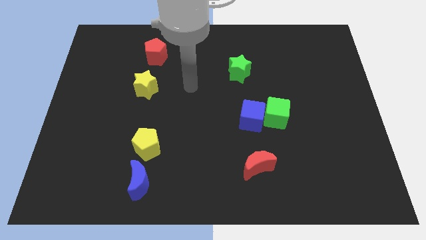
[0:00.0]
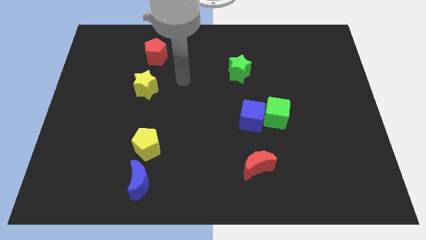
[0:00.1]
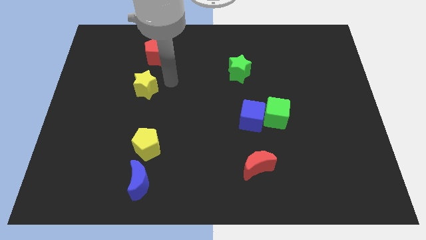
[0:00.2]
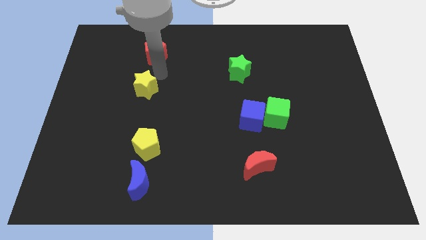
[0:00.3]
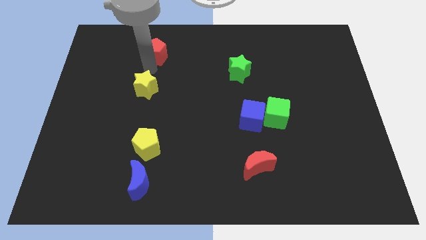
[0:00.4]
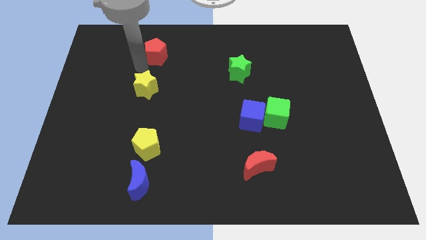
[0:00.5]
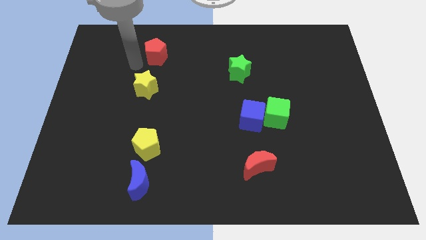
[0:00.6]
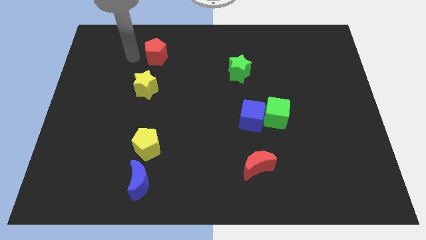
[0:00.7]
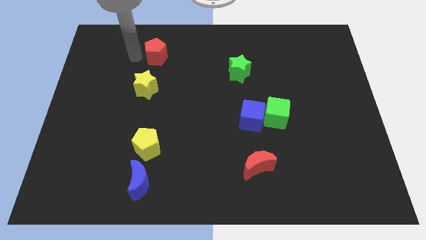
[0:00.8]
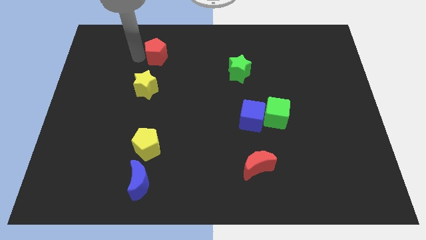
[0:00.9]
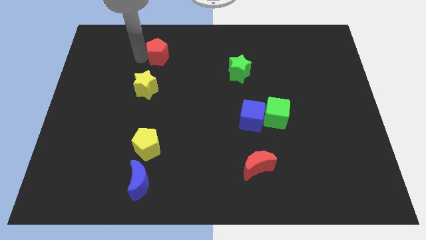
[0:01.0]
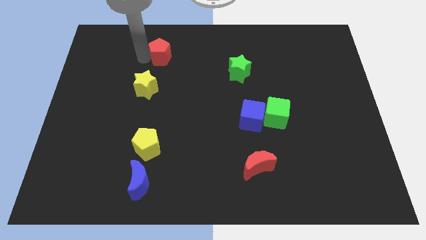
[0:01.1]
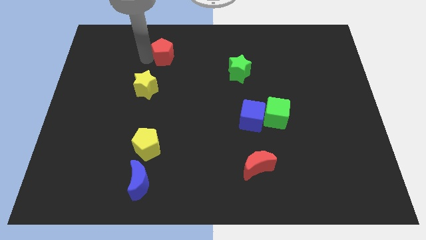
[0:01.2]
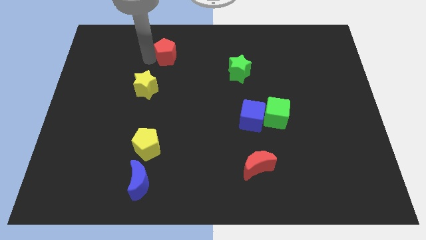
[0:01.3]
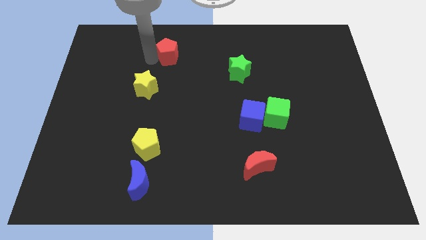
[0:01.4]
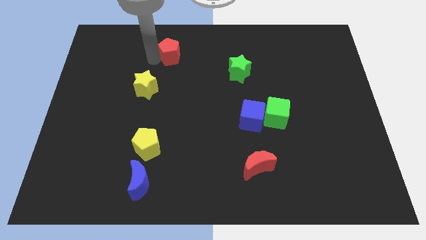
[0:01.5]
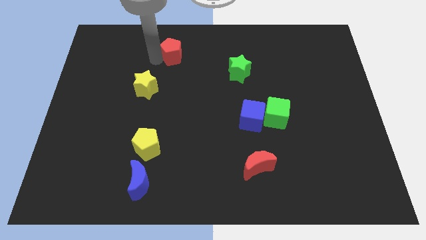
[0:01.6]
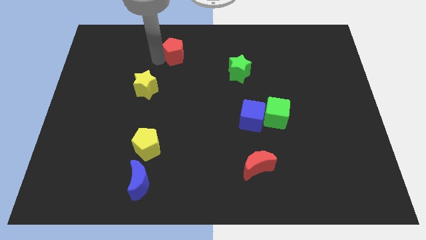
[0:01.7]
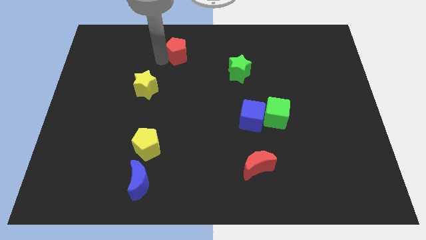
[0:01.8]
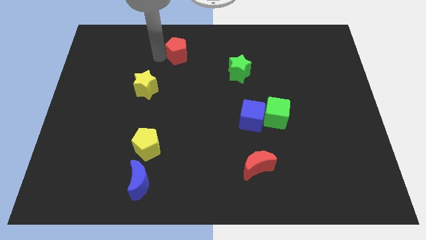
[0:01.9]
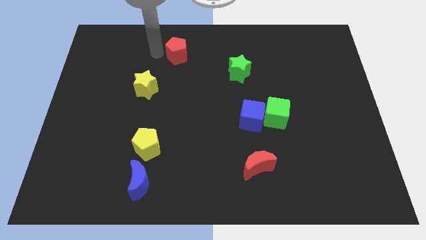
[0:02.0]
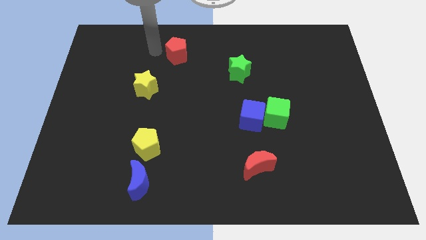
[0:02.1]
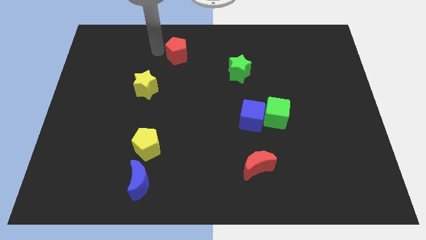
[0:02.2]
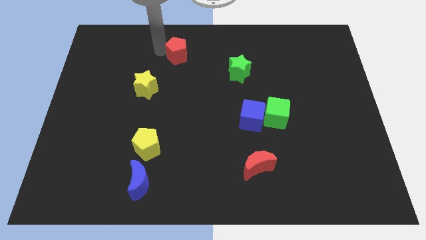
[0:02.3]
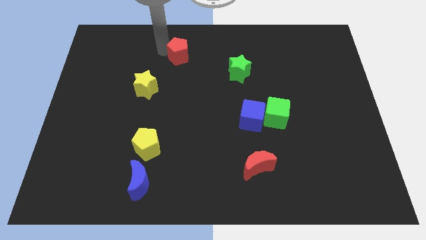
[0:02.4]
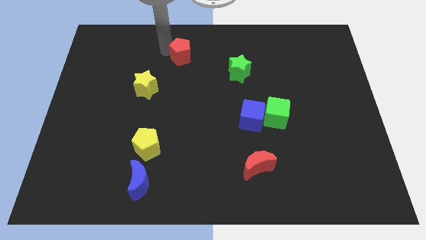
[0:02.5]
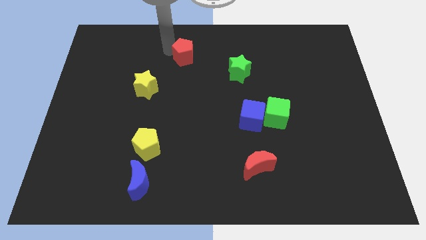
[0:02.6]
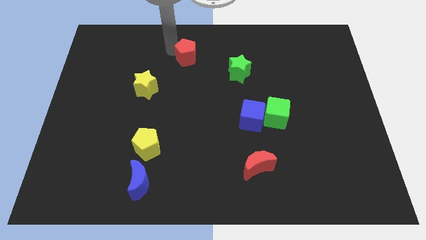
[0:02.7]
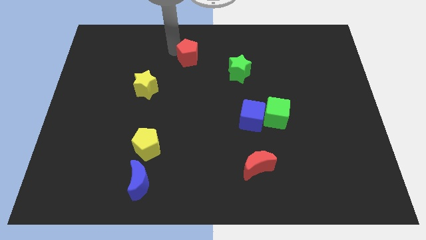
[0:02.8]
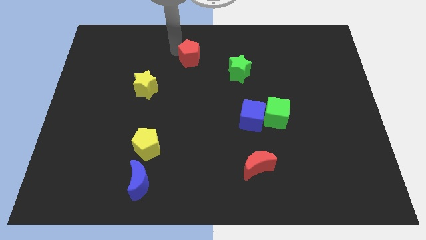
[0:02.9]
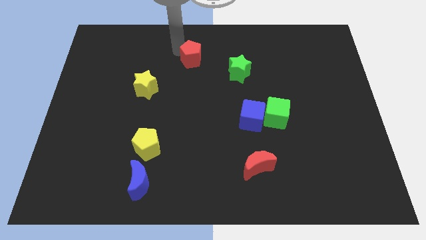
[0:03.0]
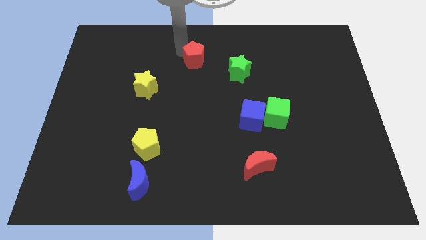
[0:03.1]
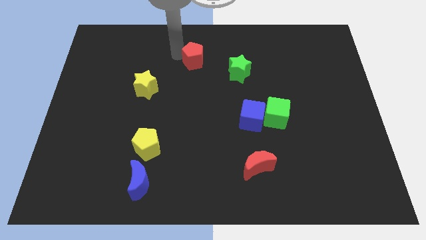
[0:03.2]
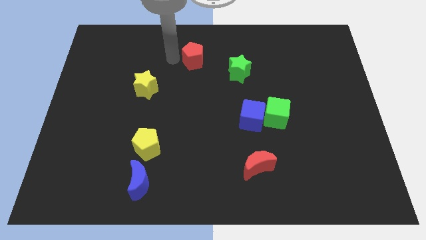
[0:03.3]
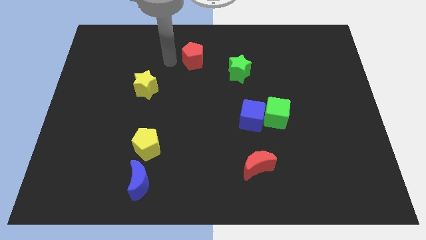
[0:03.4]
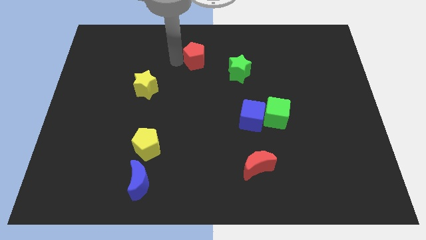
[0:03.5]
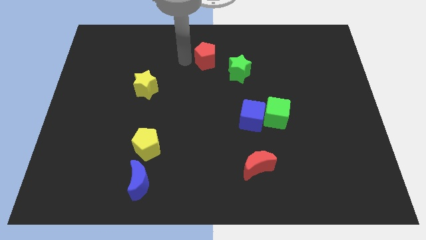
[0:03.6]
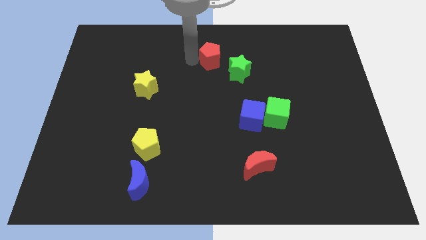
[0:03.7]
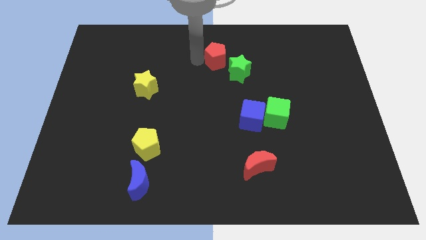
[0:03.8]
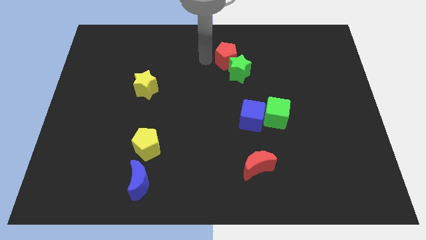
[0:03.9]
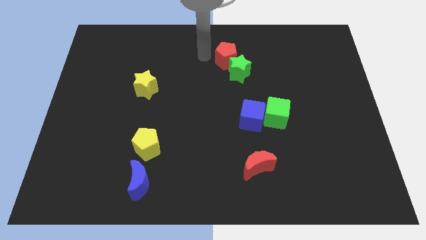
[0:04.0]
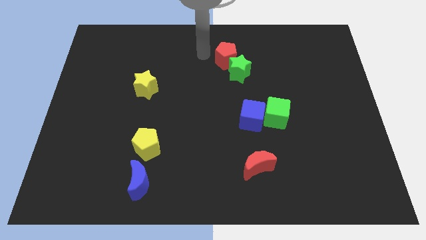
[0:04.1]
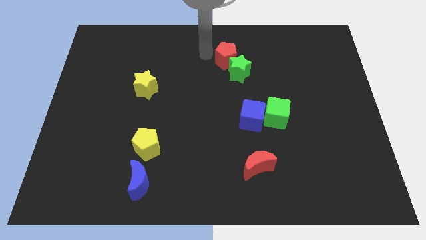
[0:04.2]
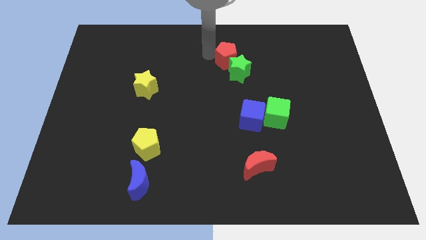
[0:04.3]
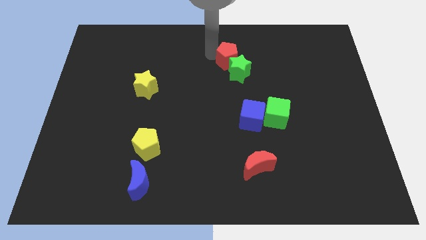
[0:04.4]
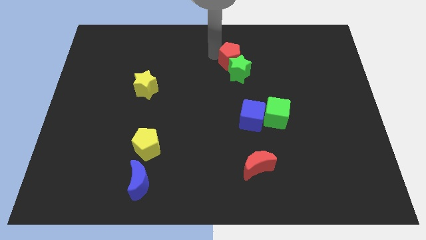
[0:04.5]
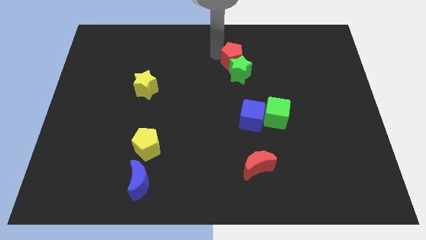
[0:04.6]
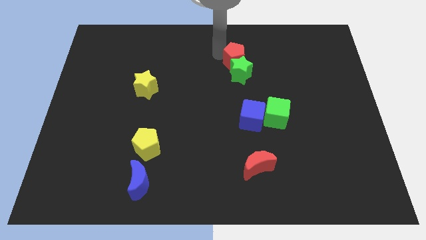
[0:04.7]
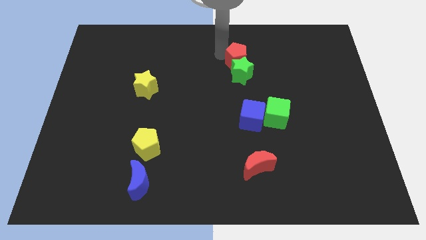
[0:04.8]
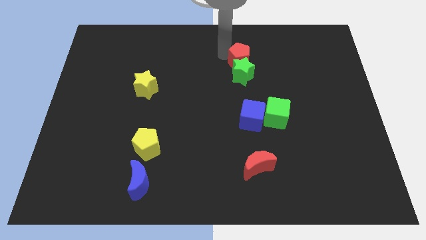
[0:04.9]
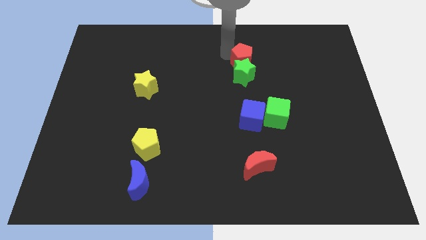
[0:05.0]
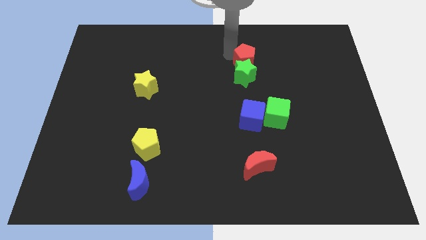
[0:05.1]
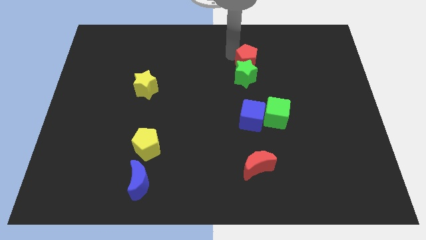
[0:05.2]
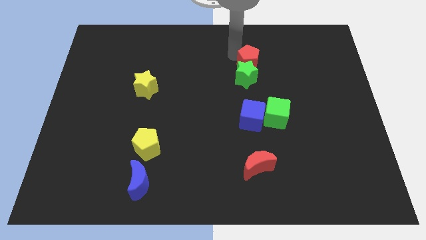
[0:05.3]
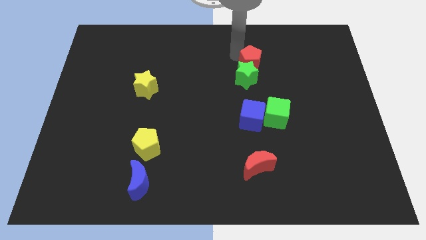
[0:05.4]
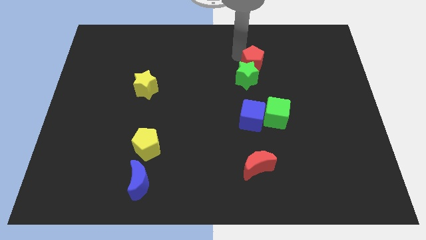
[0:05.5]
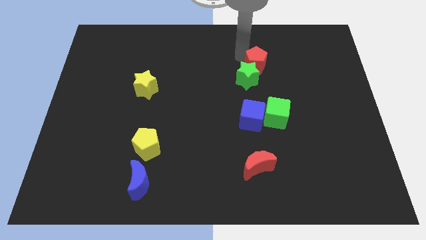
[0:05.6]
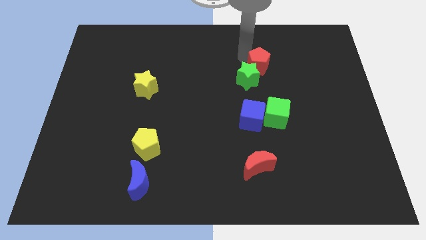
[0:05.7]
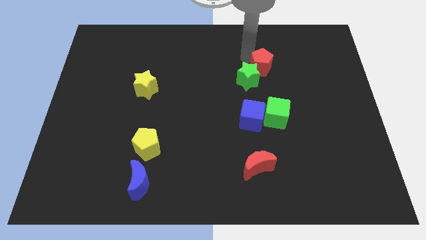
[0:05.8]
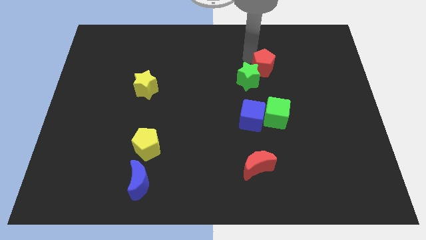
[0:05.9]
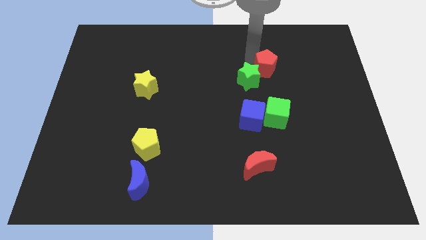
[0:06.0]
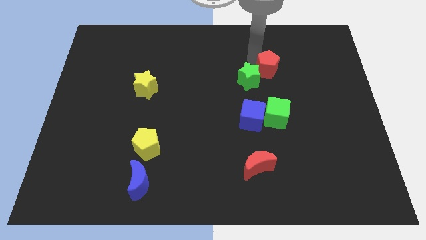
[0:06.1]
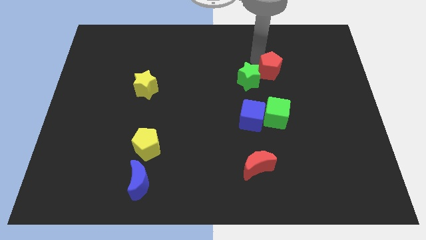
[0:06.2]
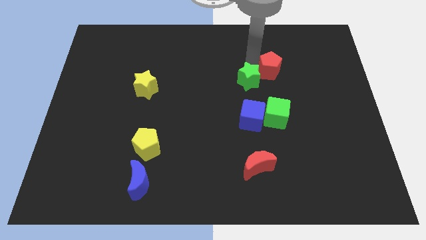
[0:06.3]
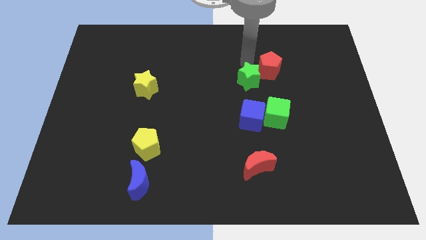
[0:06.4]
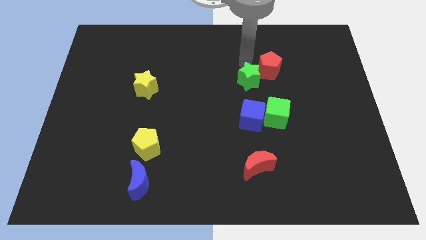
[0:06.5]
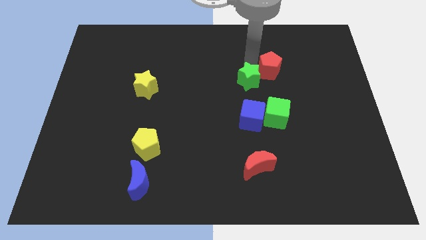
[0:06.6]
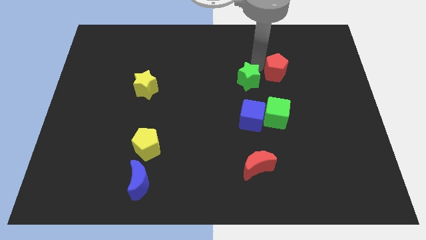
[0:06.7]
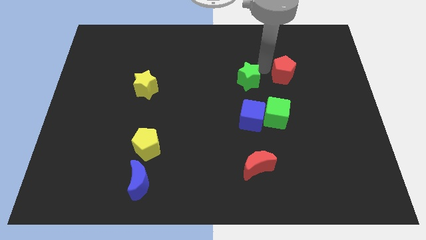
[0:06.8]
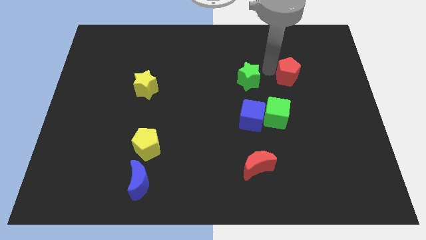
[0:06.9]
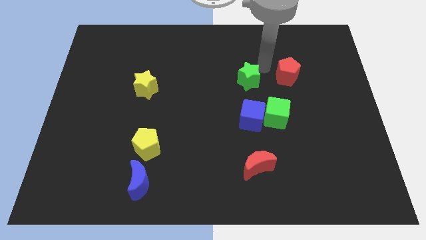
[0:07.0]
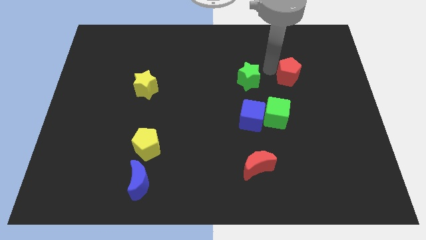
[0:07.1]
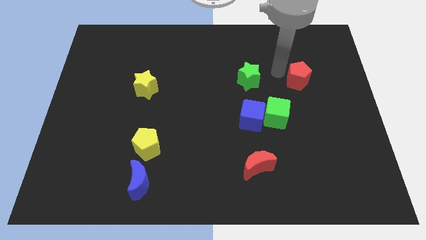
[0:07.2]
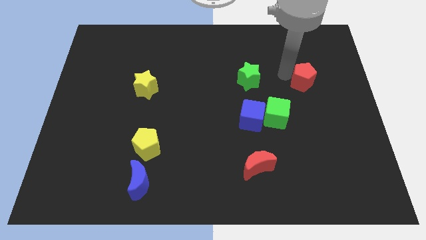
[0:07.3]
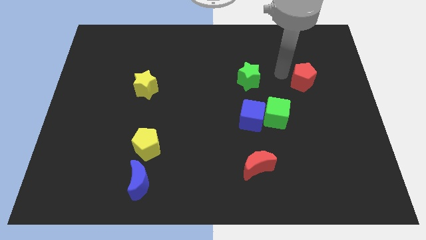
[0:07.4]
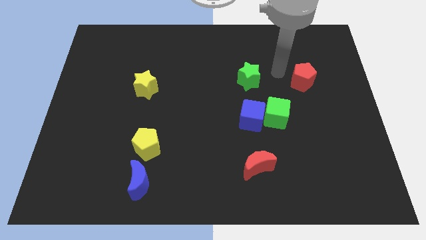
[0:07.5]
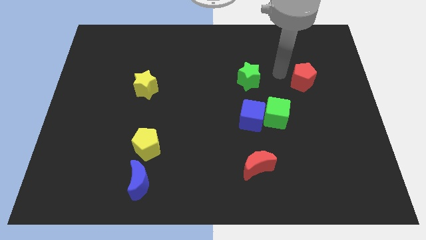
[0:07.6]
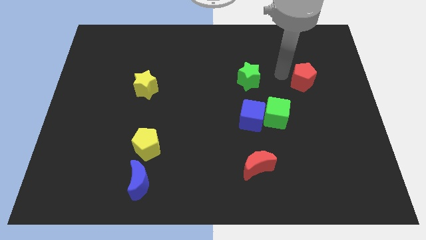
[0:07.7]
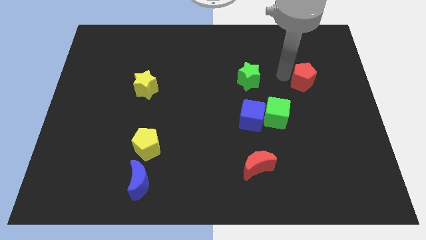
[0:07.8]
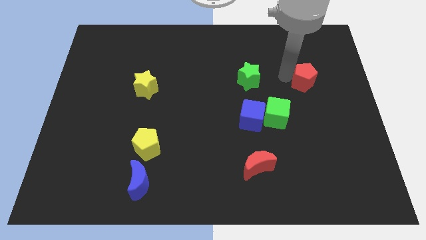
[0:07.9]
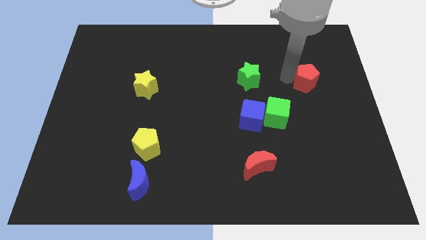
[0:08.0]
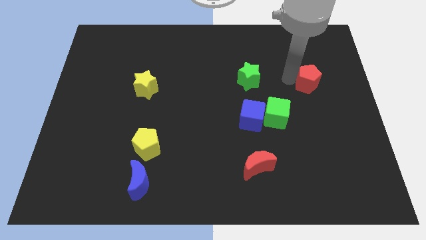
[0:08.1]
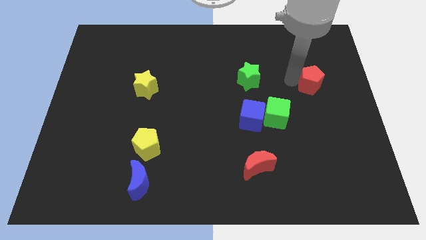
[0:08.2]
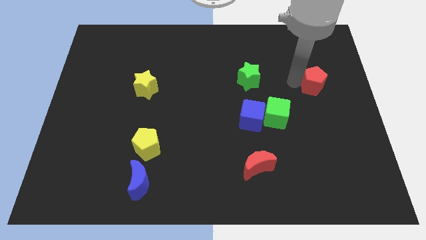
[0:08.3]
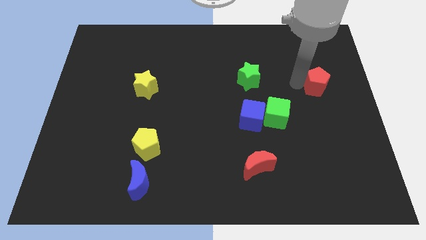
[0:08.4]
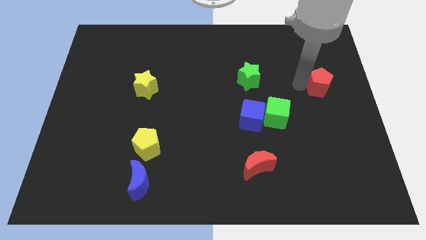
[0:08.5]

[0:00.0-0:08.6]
push the red pentagon to the right side
